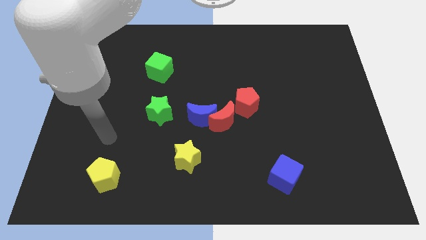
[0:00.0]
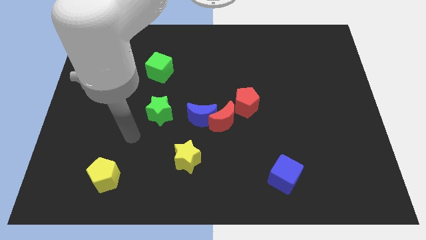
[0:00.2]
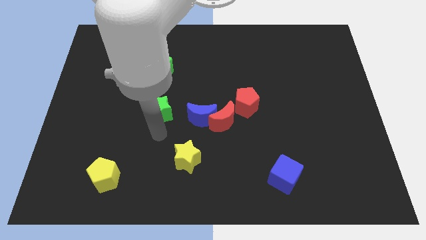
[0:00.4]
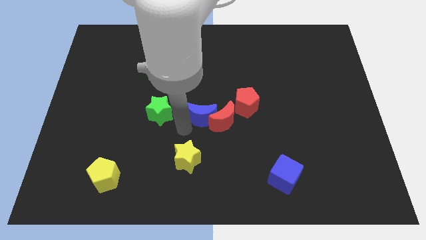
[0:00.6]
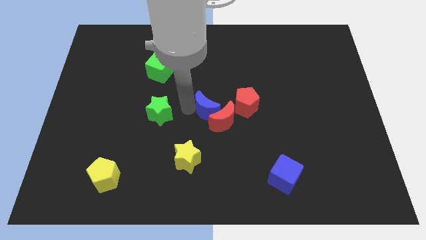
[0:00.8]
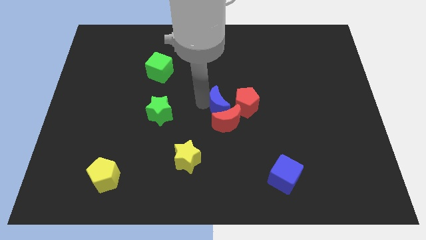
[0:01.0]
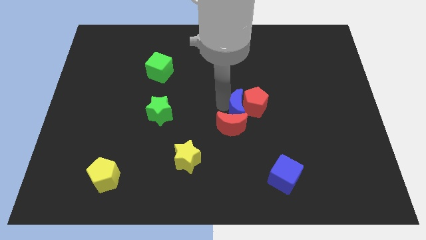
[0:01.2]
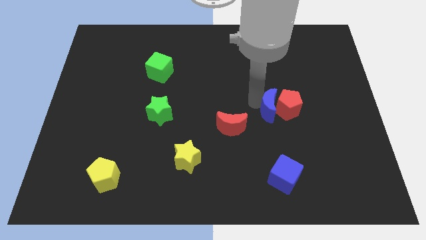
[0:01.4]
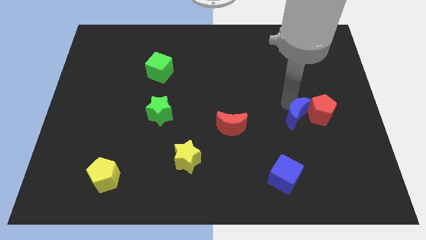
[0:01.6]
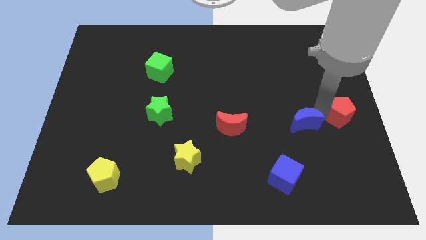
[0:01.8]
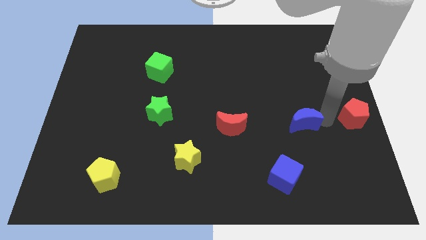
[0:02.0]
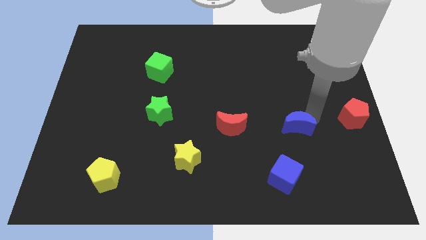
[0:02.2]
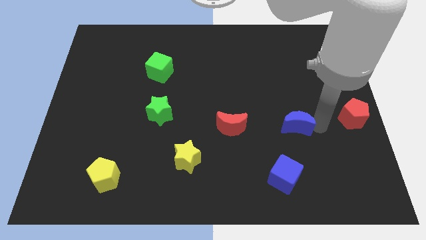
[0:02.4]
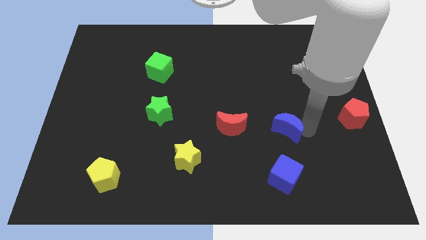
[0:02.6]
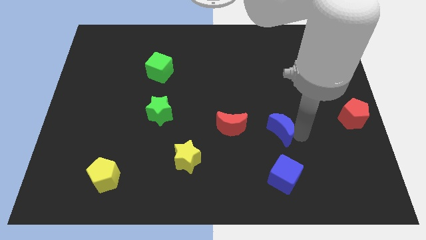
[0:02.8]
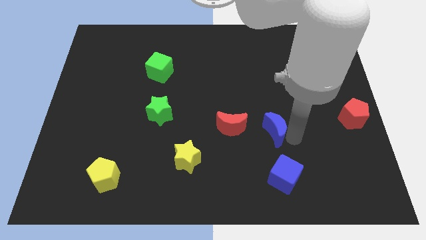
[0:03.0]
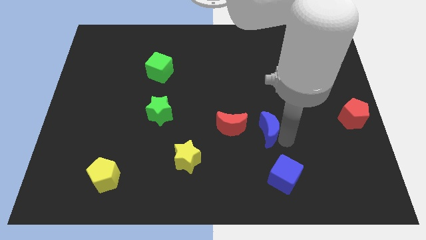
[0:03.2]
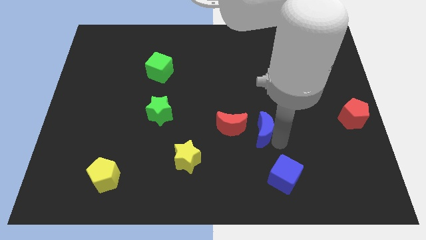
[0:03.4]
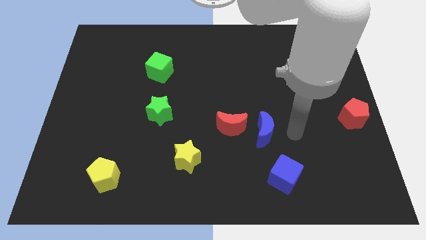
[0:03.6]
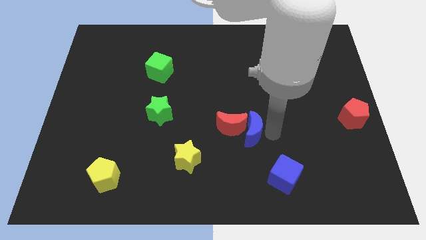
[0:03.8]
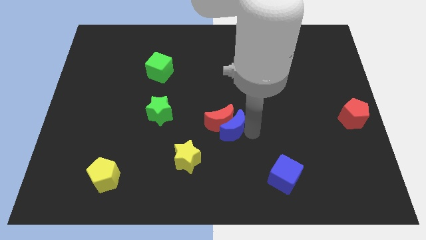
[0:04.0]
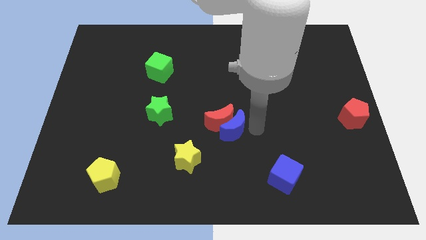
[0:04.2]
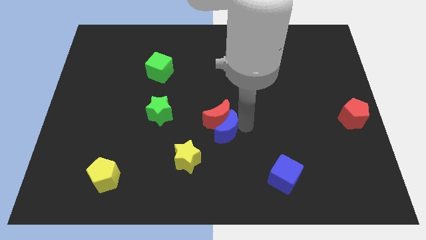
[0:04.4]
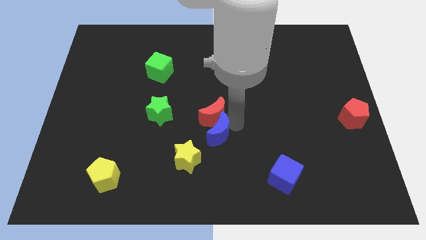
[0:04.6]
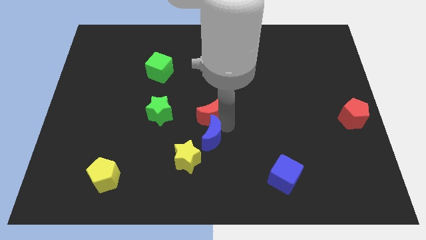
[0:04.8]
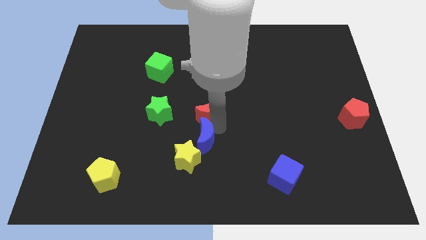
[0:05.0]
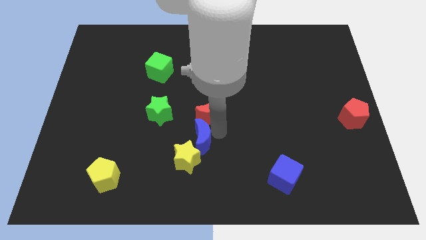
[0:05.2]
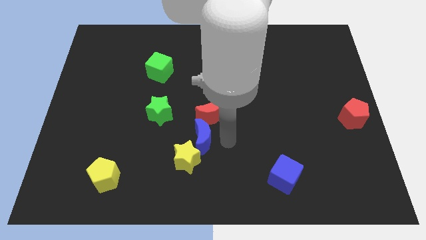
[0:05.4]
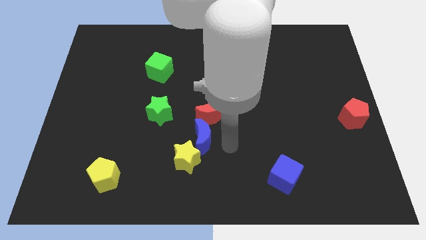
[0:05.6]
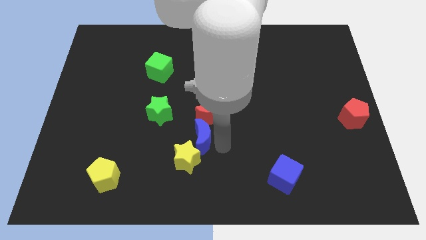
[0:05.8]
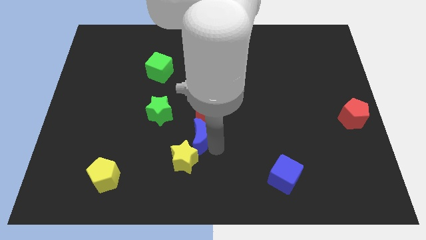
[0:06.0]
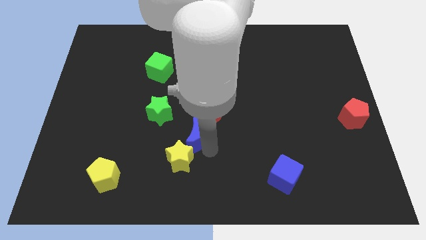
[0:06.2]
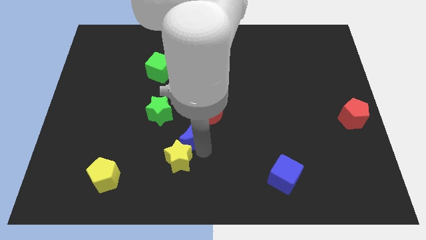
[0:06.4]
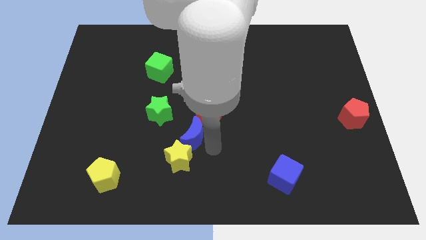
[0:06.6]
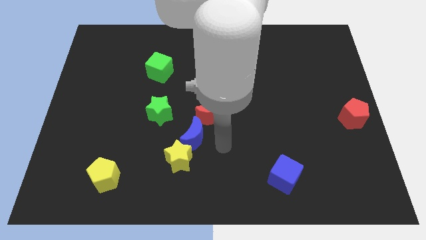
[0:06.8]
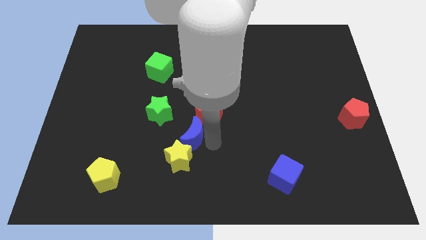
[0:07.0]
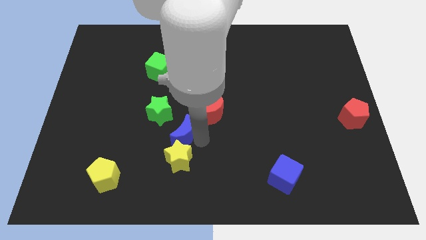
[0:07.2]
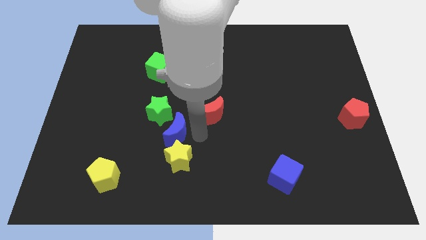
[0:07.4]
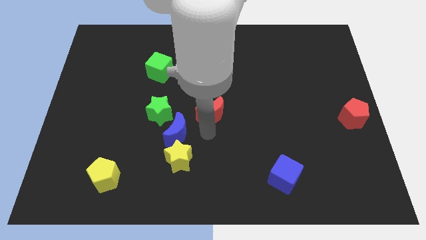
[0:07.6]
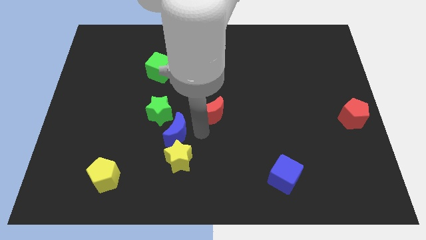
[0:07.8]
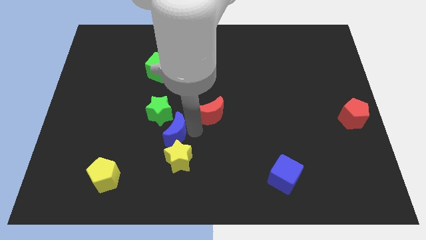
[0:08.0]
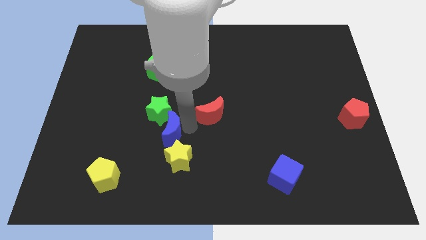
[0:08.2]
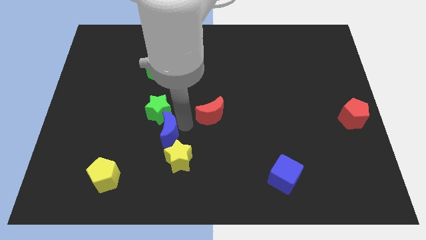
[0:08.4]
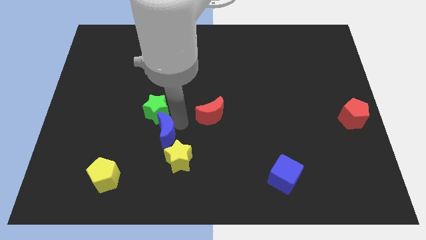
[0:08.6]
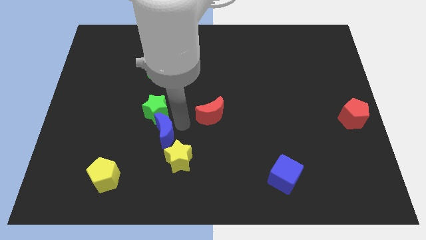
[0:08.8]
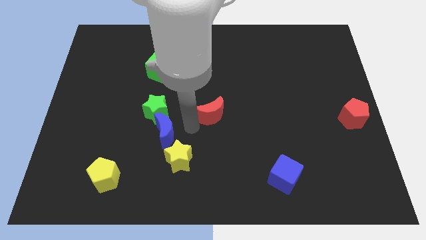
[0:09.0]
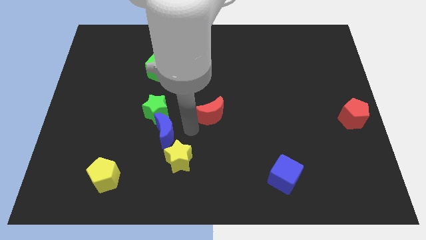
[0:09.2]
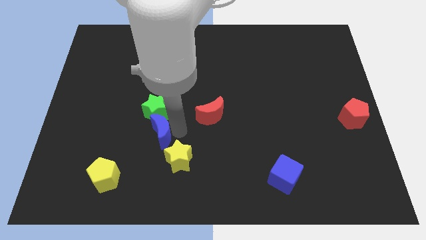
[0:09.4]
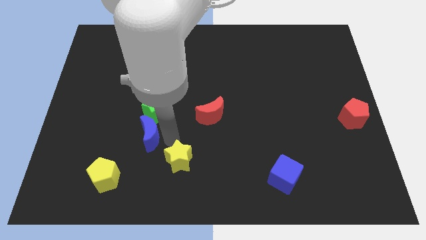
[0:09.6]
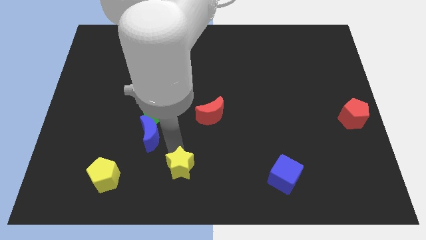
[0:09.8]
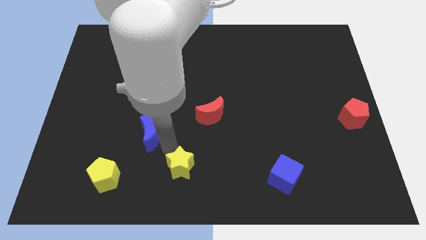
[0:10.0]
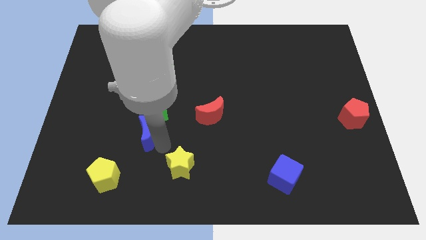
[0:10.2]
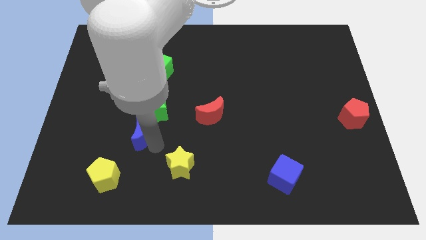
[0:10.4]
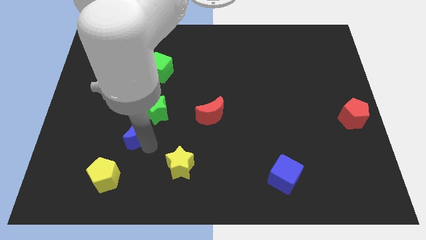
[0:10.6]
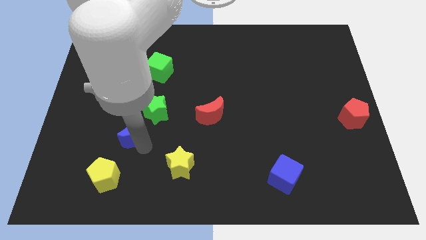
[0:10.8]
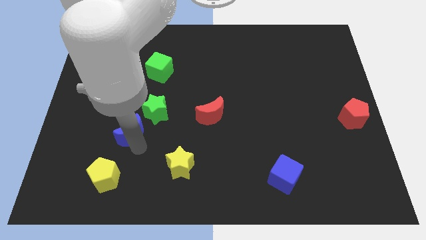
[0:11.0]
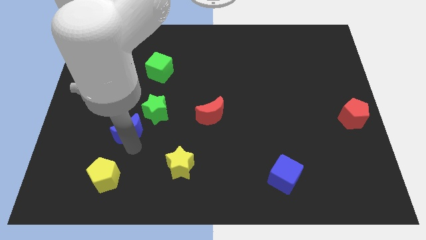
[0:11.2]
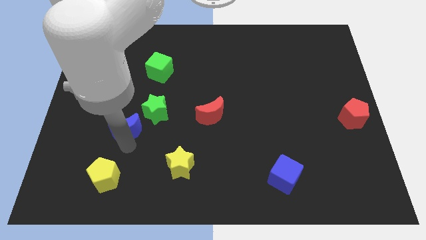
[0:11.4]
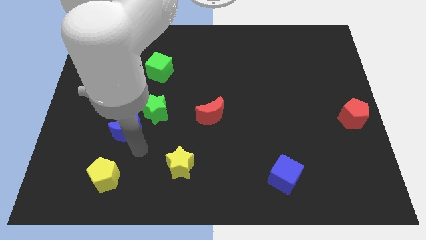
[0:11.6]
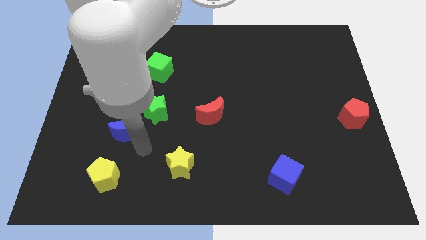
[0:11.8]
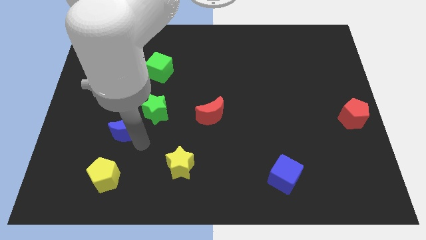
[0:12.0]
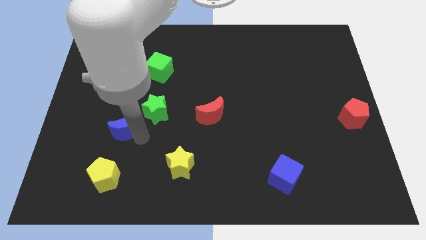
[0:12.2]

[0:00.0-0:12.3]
push the blue moon to the left side of the green star

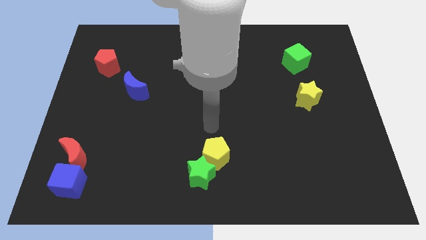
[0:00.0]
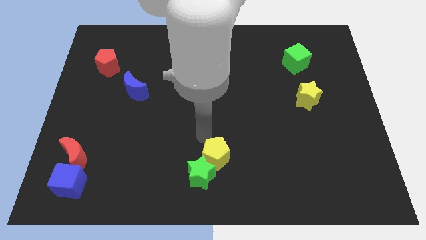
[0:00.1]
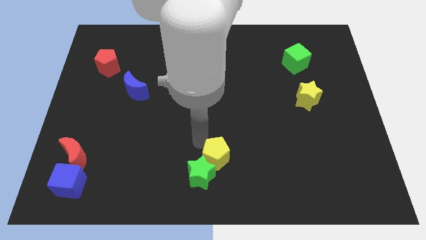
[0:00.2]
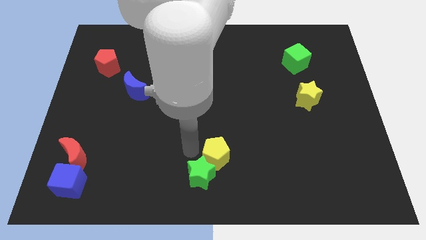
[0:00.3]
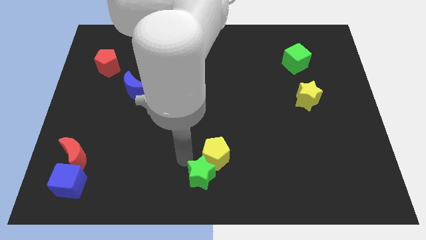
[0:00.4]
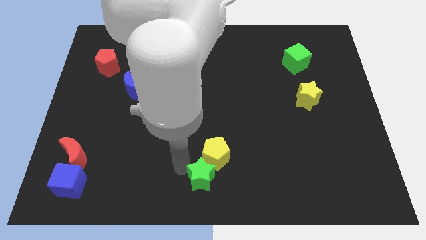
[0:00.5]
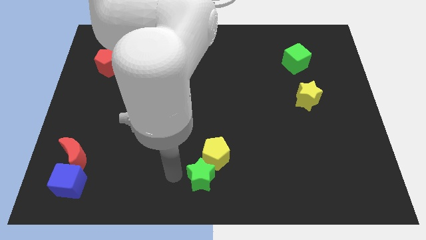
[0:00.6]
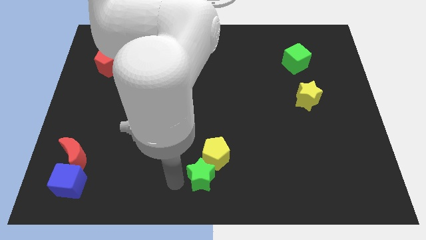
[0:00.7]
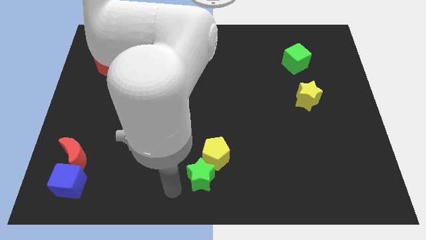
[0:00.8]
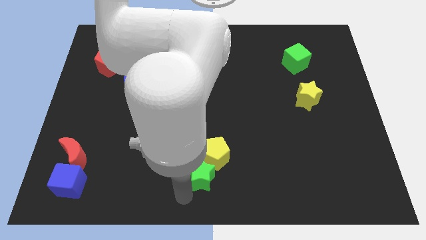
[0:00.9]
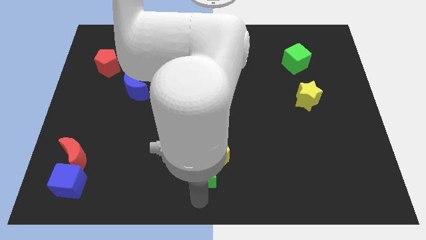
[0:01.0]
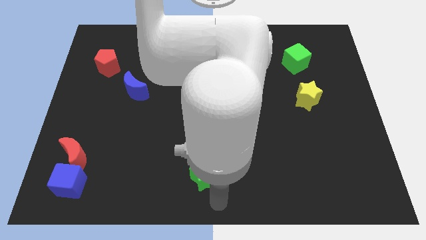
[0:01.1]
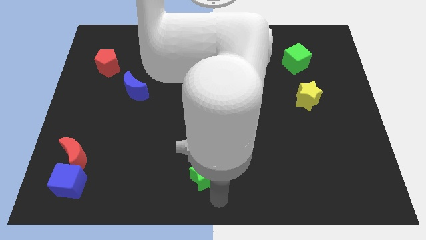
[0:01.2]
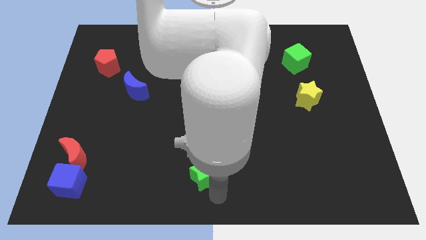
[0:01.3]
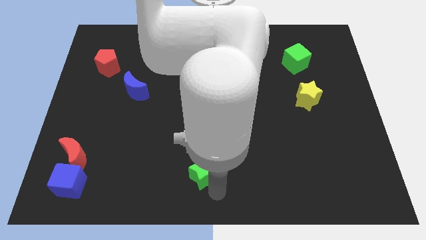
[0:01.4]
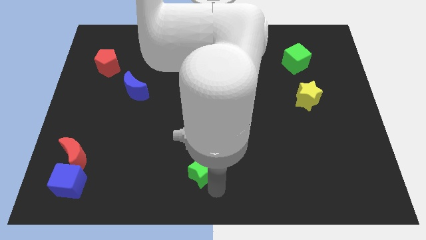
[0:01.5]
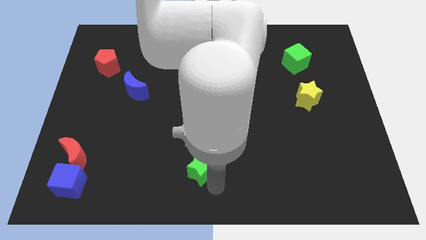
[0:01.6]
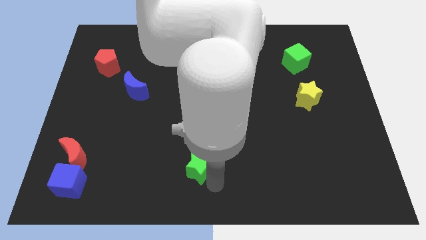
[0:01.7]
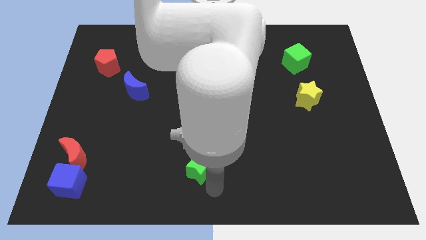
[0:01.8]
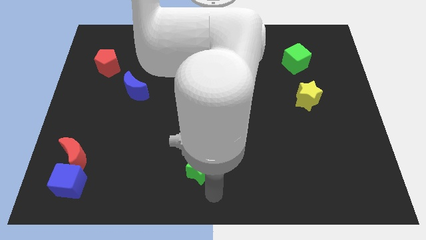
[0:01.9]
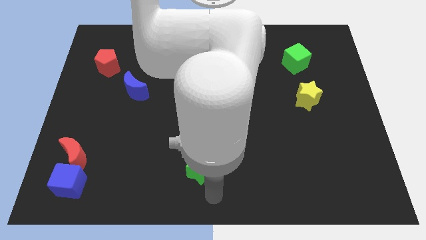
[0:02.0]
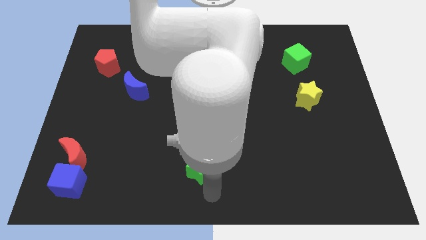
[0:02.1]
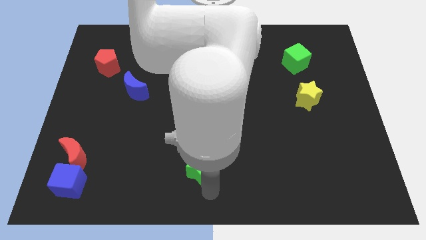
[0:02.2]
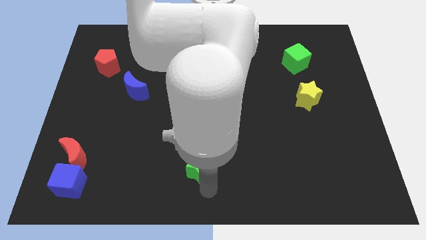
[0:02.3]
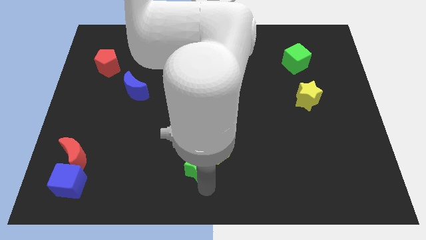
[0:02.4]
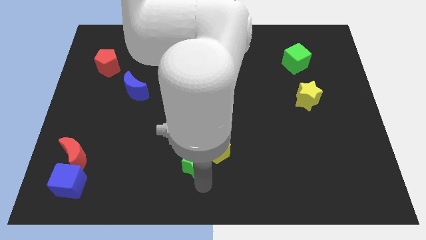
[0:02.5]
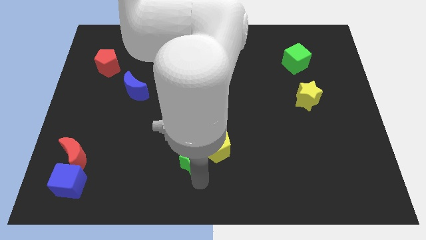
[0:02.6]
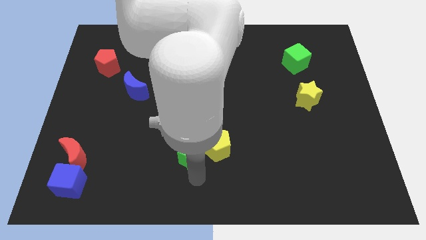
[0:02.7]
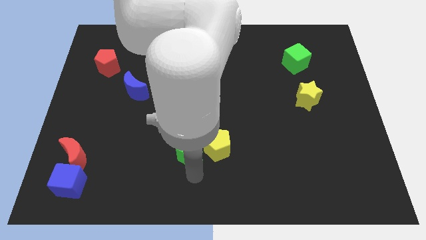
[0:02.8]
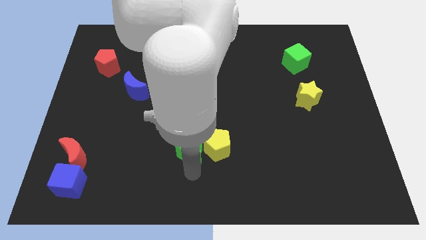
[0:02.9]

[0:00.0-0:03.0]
move the green star to the top left of the yellow pentagon
